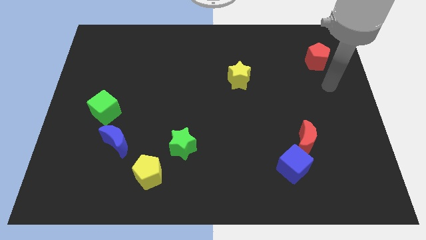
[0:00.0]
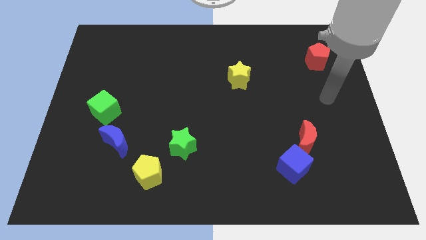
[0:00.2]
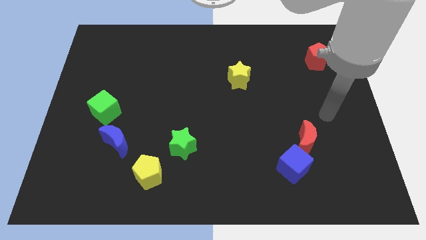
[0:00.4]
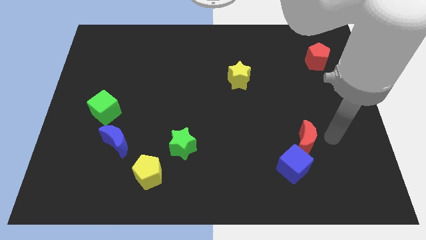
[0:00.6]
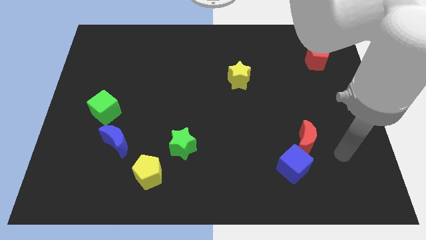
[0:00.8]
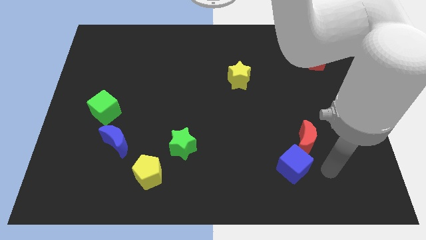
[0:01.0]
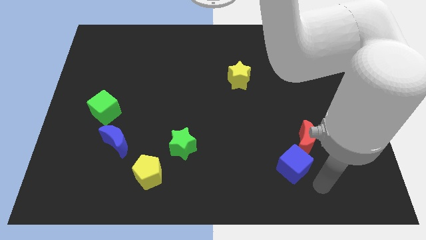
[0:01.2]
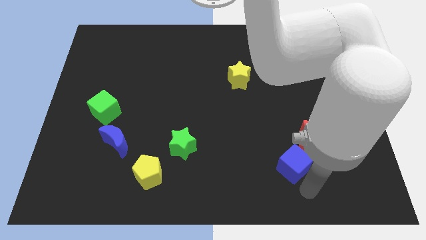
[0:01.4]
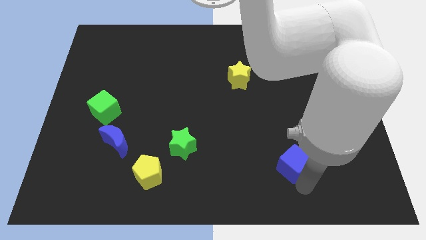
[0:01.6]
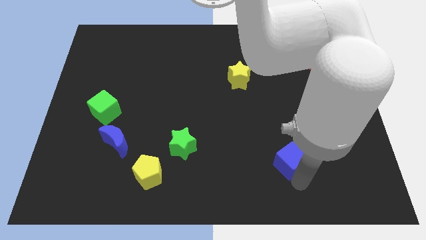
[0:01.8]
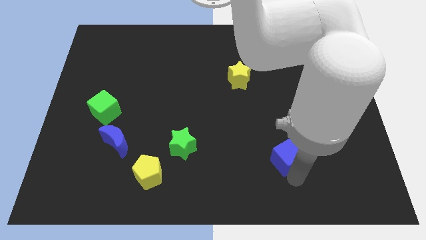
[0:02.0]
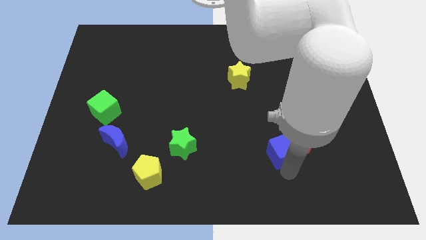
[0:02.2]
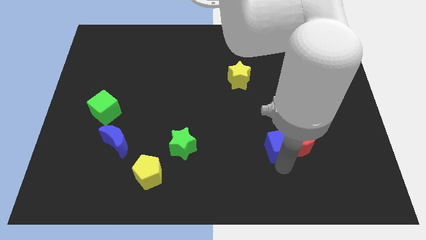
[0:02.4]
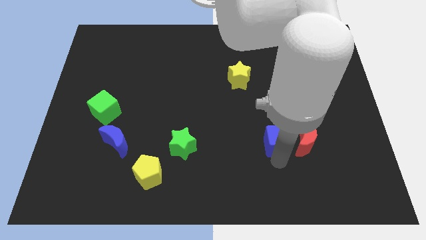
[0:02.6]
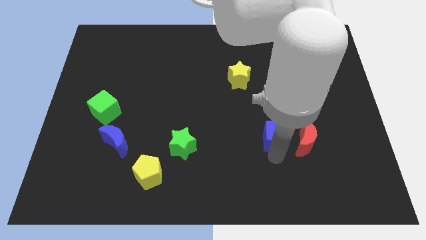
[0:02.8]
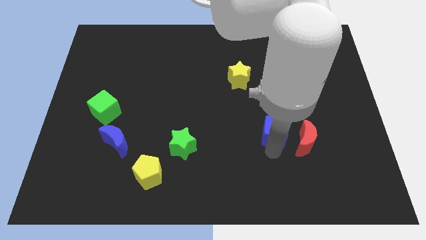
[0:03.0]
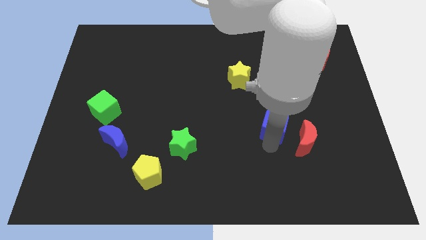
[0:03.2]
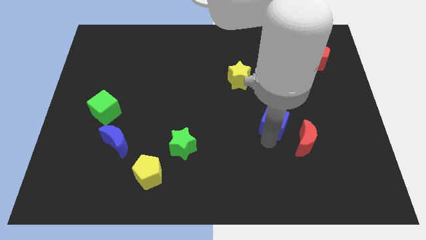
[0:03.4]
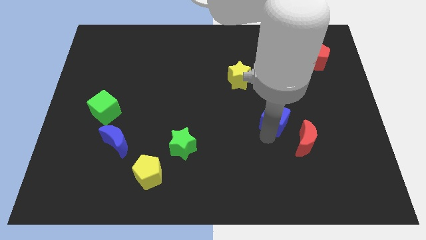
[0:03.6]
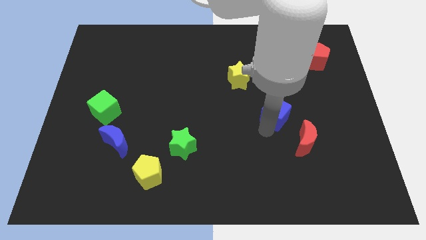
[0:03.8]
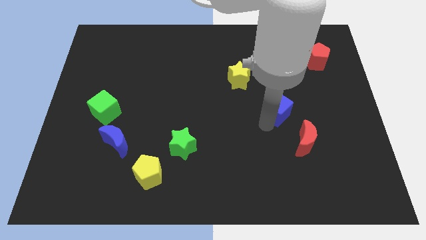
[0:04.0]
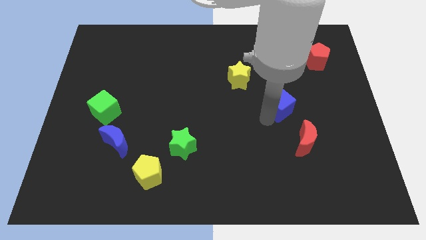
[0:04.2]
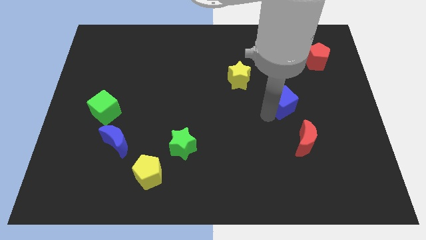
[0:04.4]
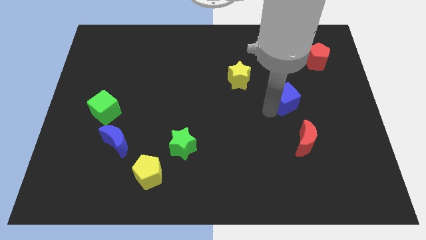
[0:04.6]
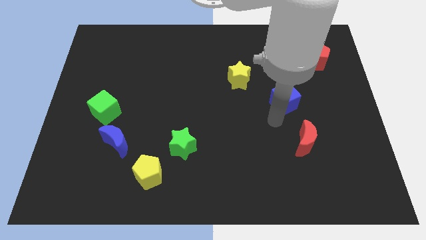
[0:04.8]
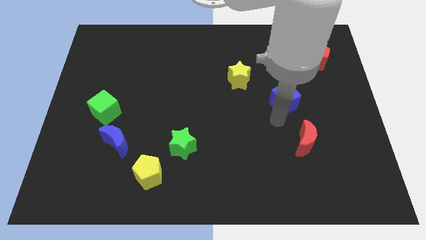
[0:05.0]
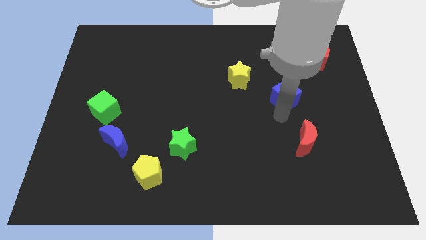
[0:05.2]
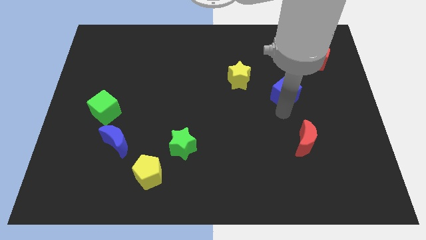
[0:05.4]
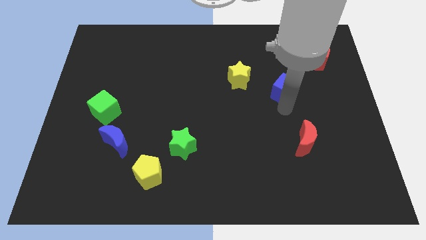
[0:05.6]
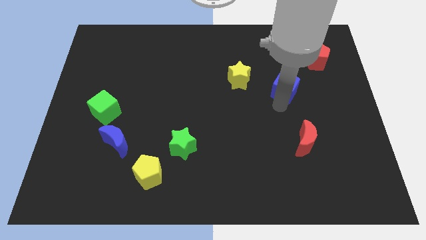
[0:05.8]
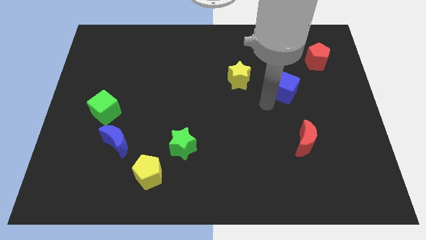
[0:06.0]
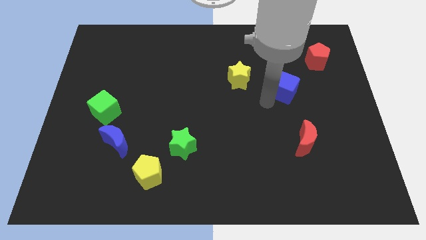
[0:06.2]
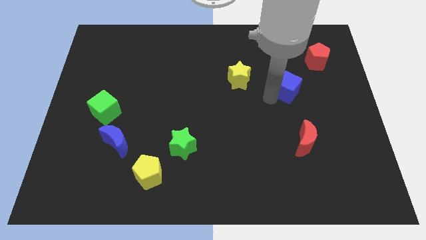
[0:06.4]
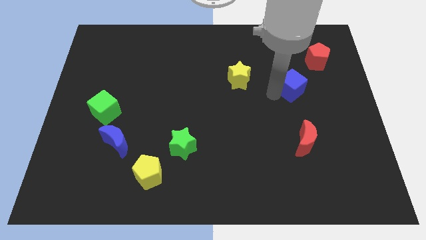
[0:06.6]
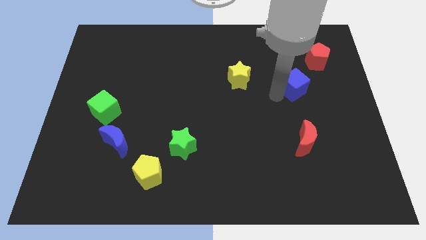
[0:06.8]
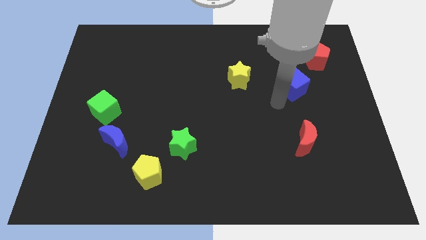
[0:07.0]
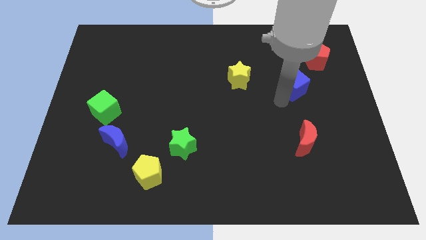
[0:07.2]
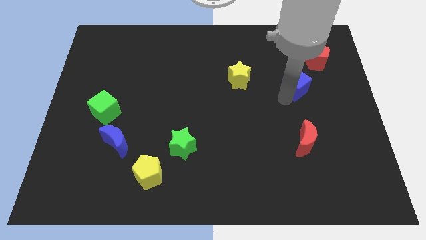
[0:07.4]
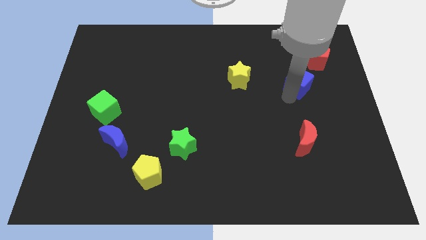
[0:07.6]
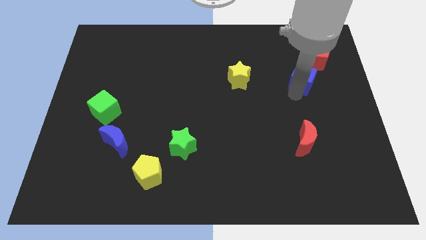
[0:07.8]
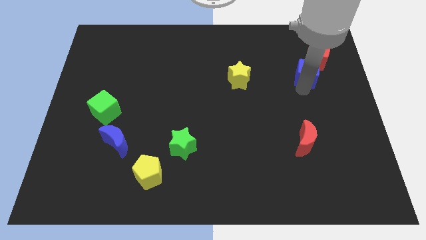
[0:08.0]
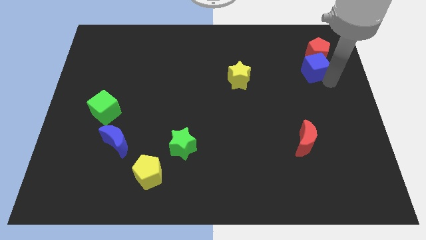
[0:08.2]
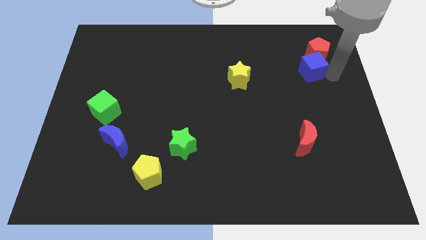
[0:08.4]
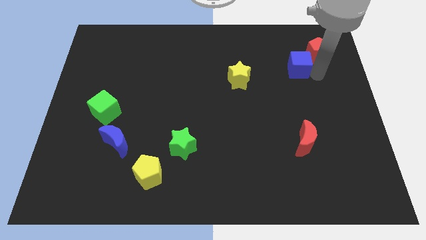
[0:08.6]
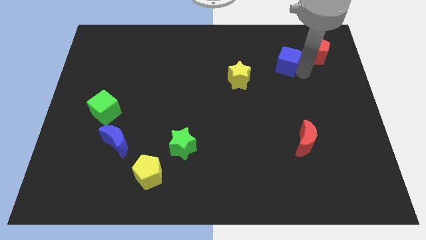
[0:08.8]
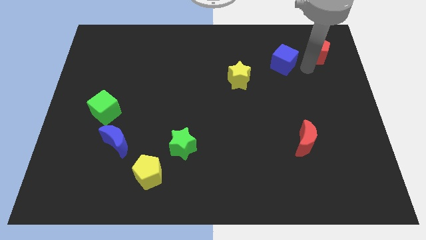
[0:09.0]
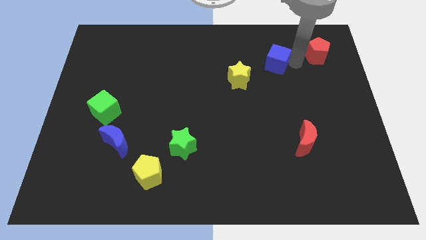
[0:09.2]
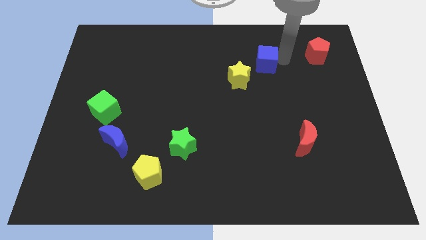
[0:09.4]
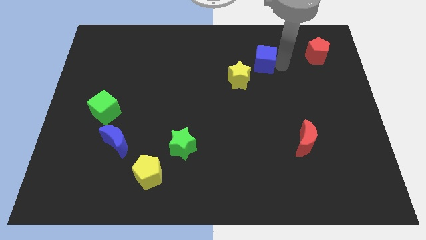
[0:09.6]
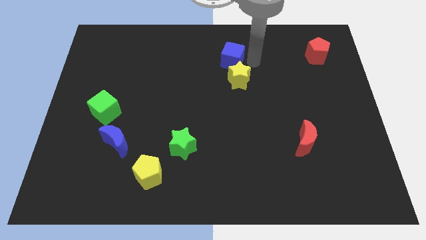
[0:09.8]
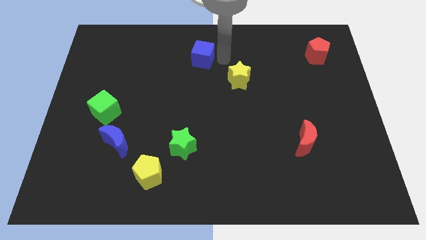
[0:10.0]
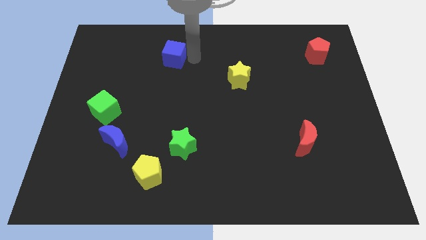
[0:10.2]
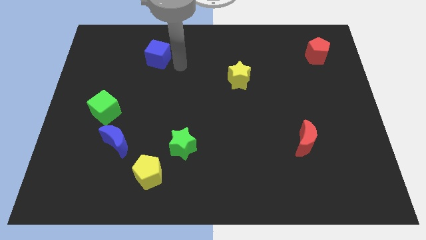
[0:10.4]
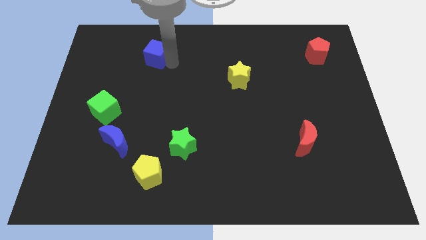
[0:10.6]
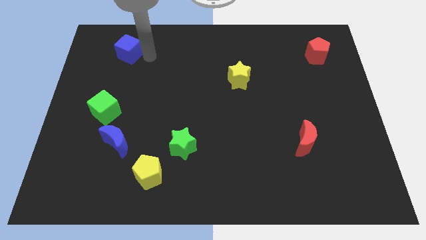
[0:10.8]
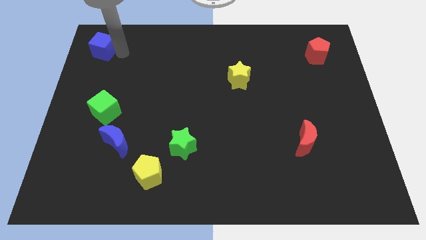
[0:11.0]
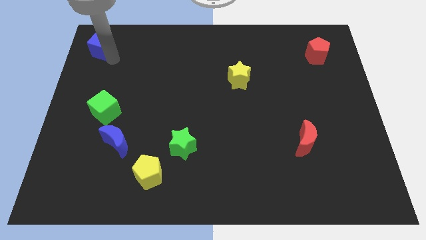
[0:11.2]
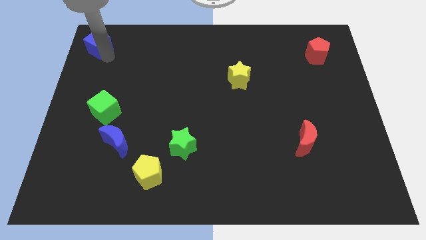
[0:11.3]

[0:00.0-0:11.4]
slide the blue cube to the upper left corner
